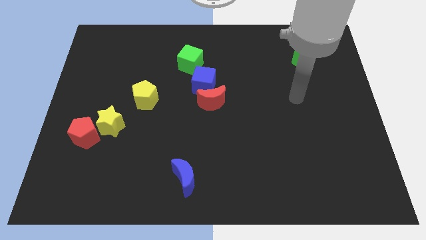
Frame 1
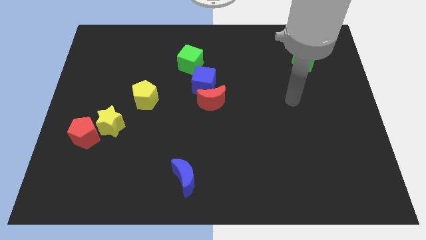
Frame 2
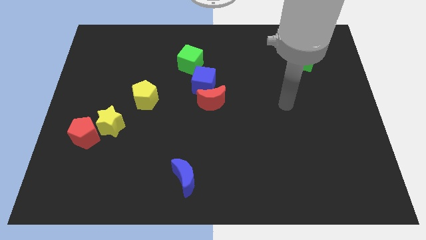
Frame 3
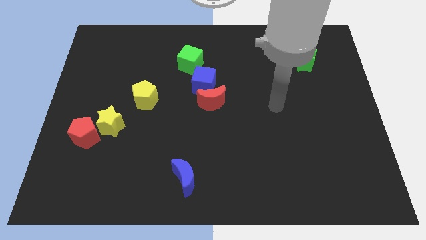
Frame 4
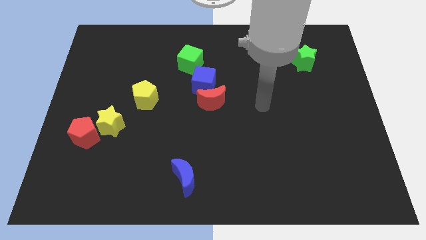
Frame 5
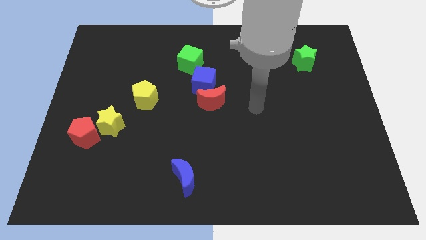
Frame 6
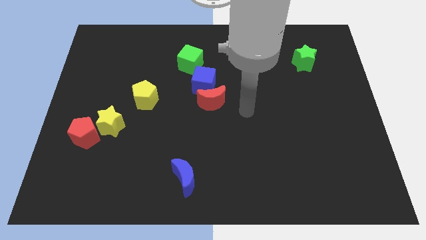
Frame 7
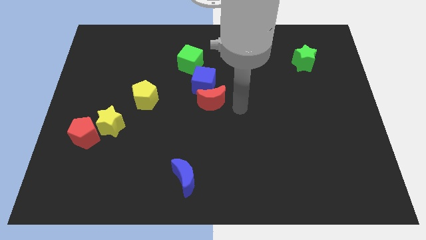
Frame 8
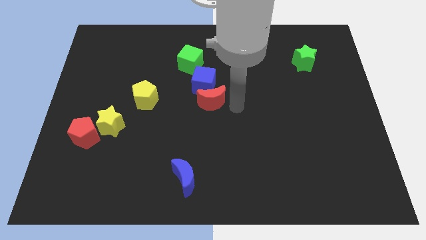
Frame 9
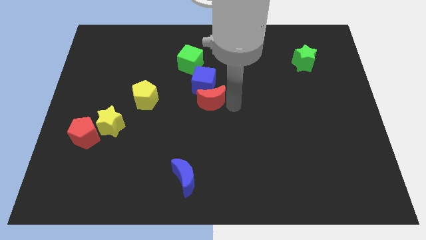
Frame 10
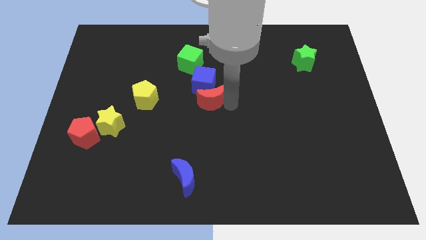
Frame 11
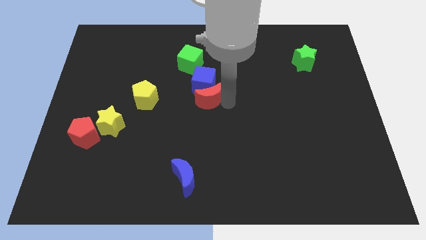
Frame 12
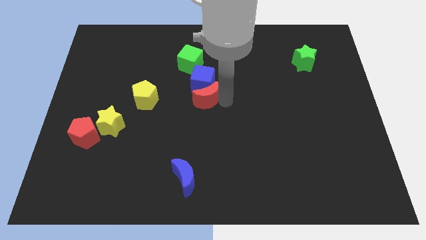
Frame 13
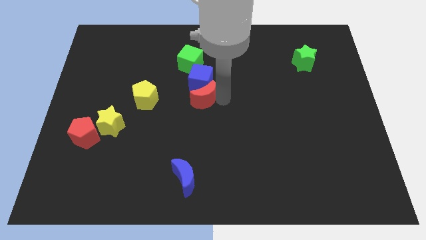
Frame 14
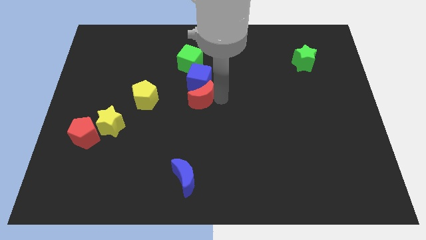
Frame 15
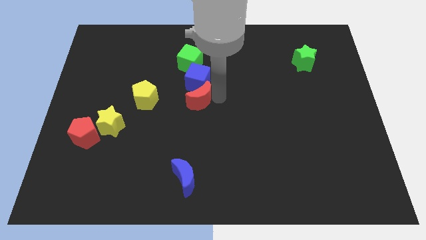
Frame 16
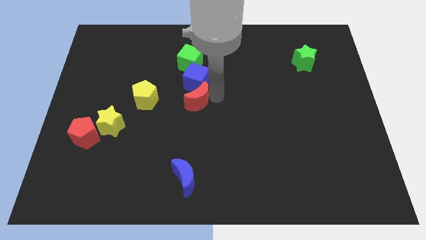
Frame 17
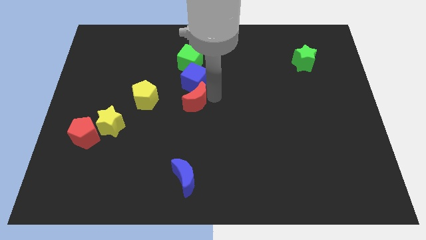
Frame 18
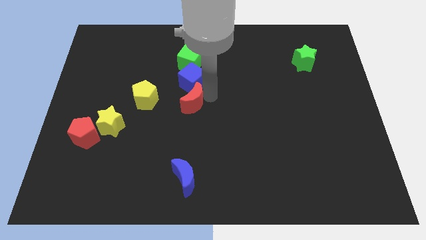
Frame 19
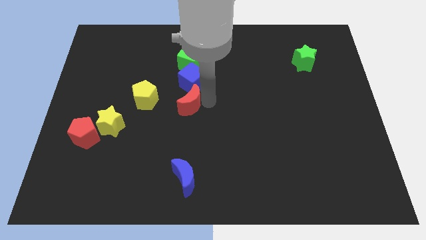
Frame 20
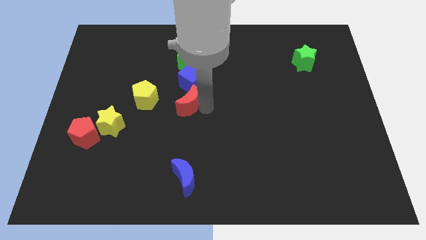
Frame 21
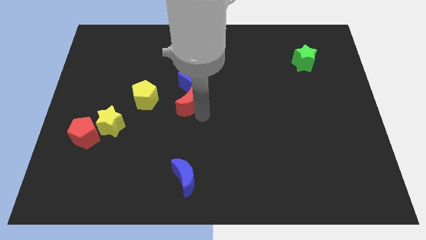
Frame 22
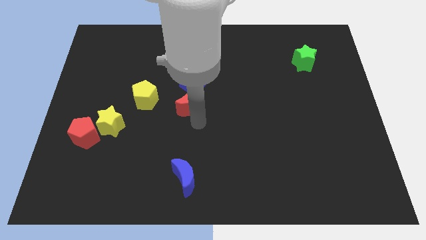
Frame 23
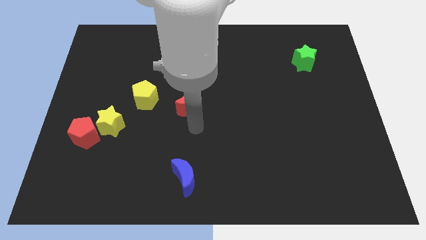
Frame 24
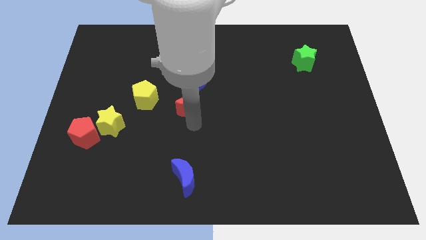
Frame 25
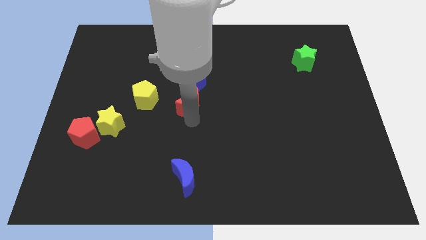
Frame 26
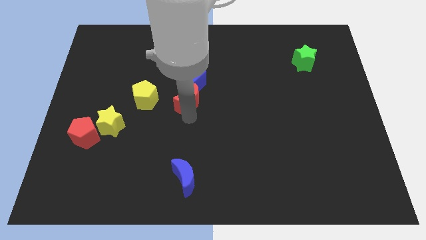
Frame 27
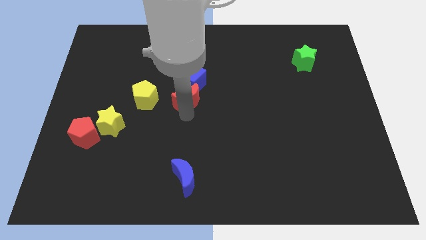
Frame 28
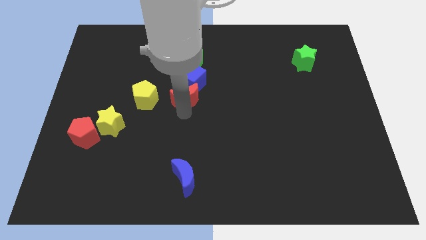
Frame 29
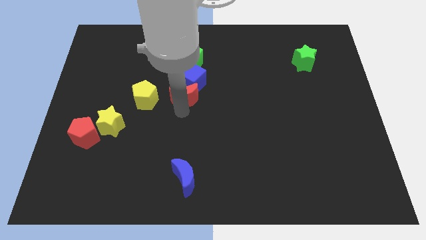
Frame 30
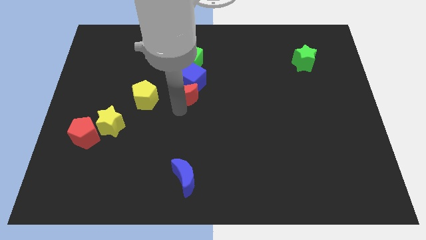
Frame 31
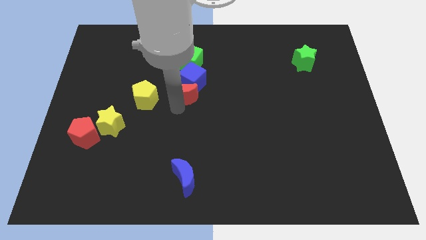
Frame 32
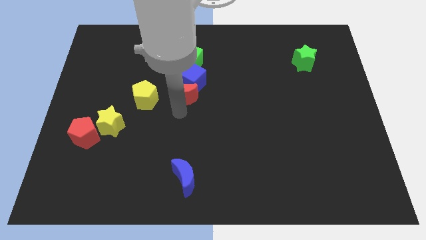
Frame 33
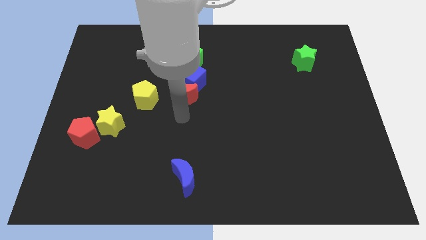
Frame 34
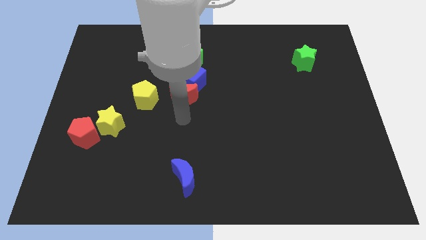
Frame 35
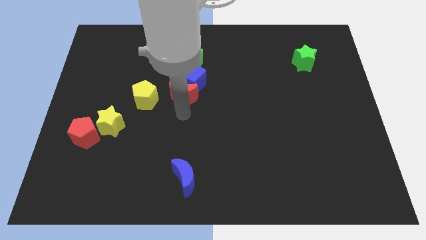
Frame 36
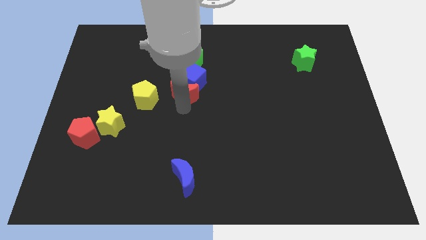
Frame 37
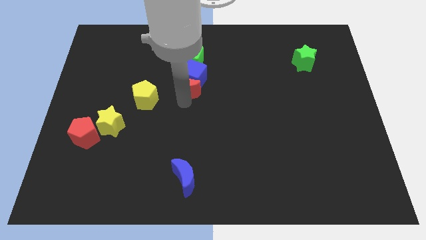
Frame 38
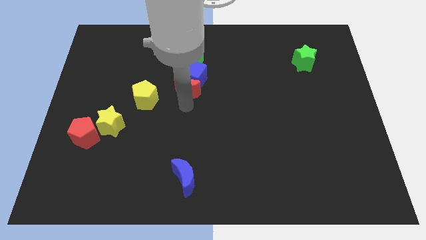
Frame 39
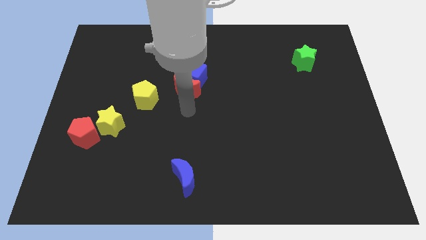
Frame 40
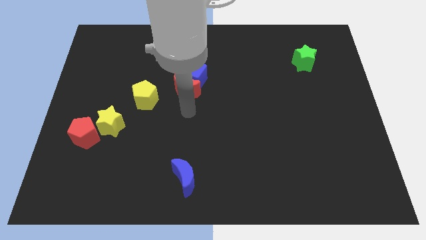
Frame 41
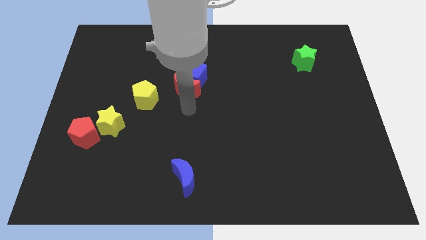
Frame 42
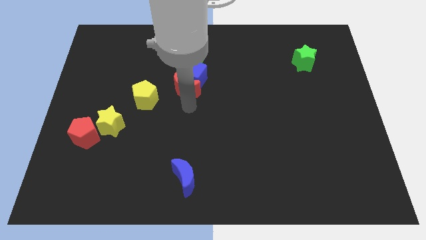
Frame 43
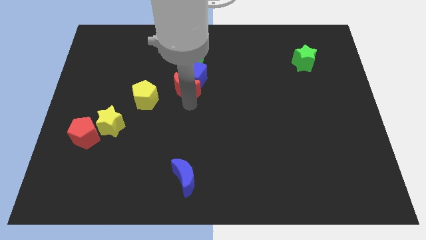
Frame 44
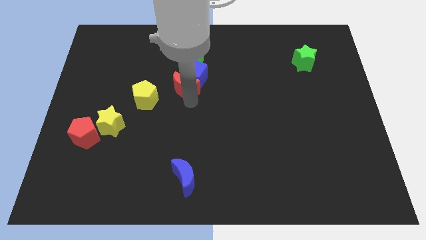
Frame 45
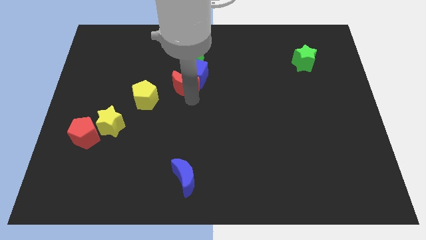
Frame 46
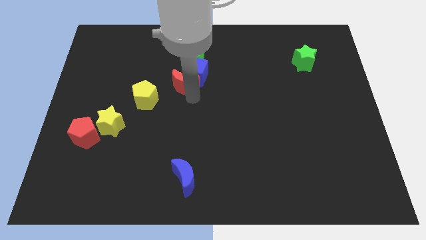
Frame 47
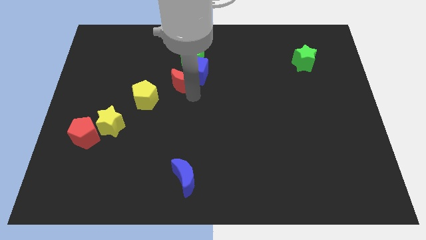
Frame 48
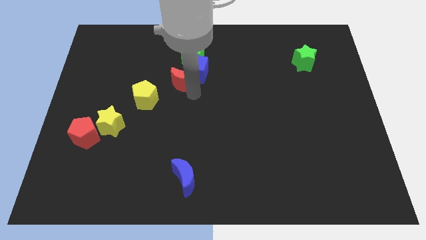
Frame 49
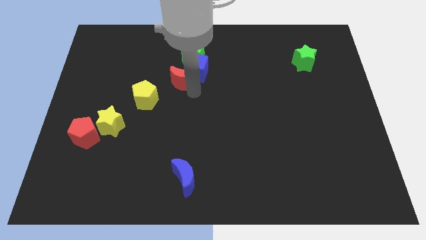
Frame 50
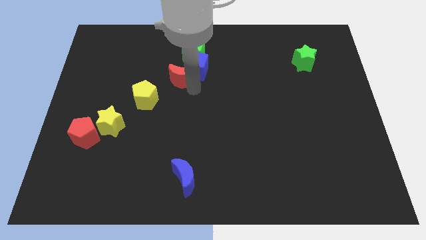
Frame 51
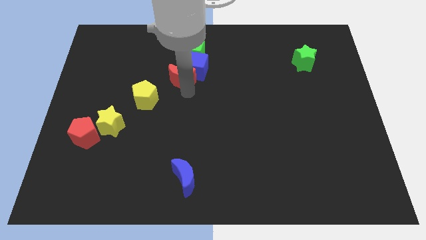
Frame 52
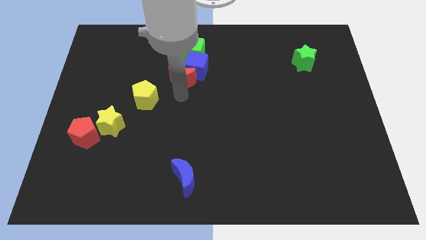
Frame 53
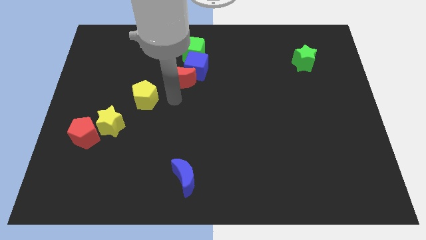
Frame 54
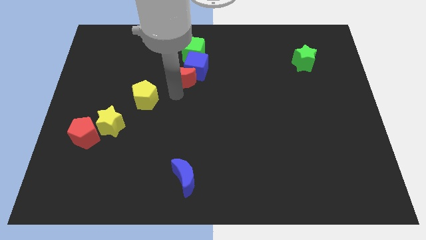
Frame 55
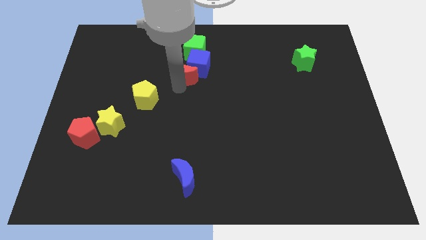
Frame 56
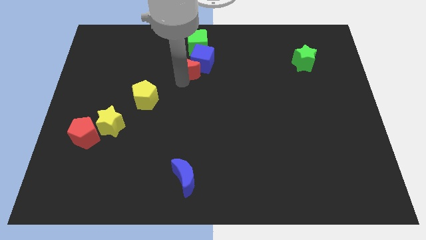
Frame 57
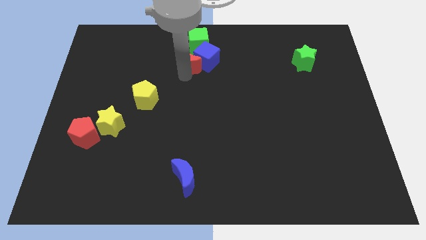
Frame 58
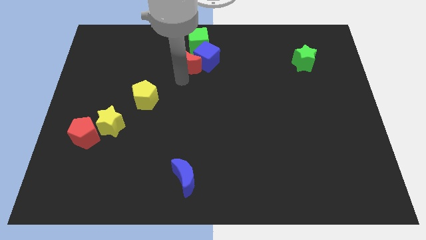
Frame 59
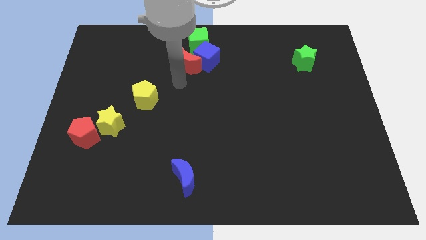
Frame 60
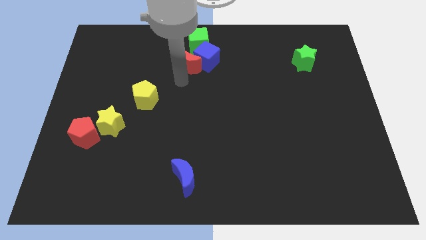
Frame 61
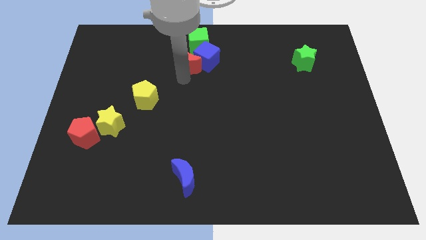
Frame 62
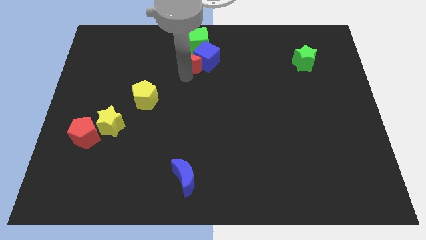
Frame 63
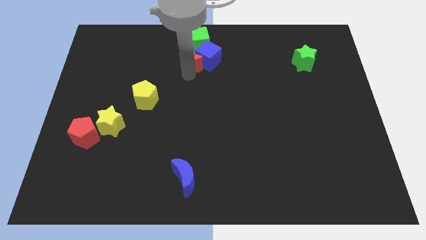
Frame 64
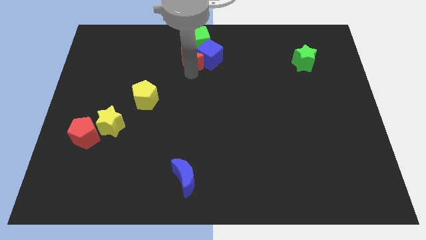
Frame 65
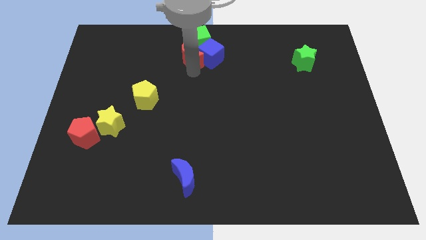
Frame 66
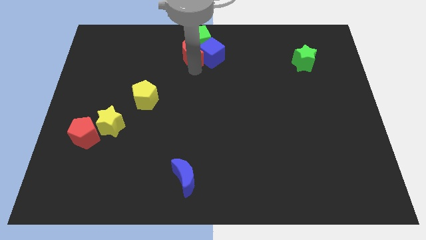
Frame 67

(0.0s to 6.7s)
push the red moon close to the green cube
